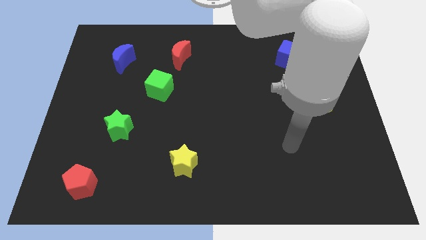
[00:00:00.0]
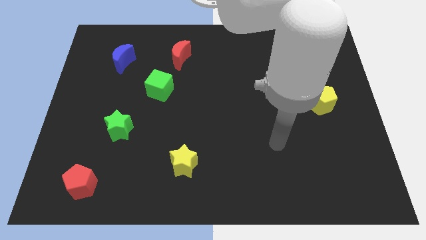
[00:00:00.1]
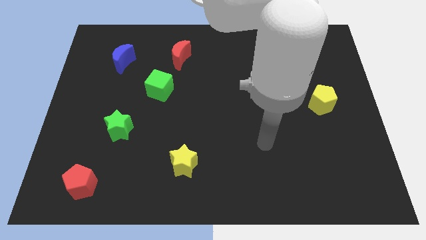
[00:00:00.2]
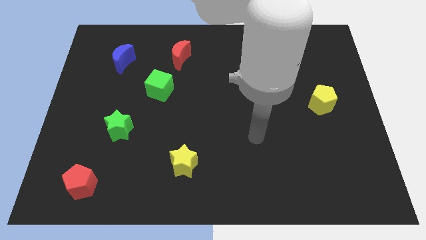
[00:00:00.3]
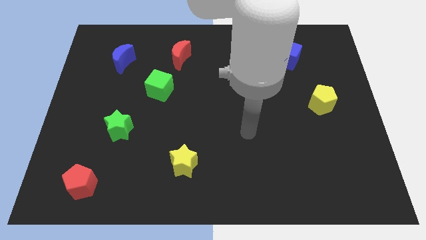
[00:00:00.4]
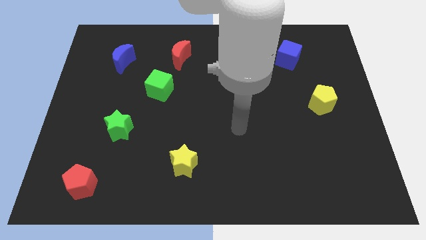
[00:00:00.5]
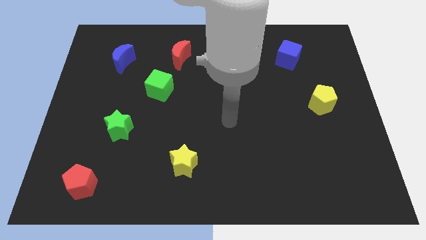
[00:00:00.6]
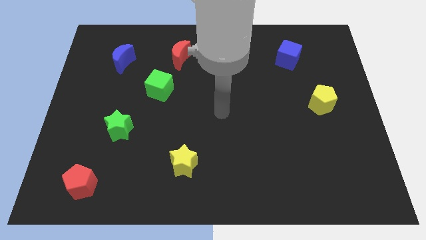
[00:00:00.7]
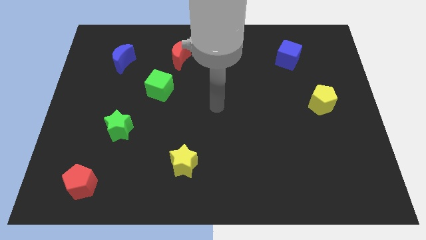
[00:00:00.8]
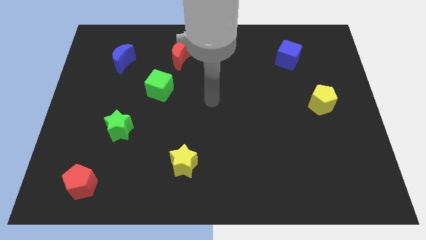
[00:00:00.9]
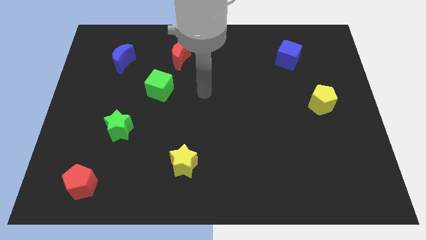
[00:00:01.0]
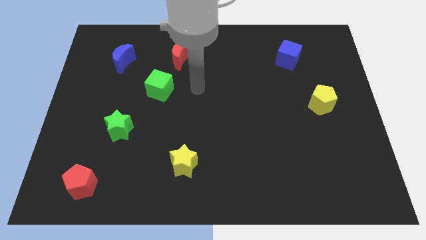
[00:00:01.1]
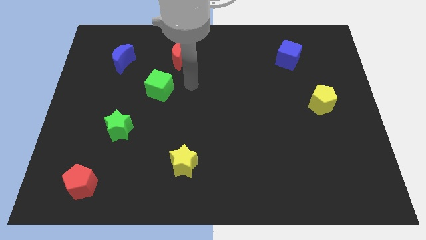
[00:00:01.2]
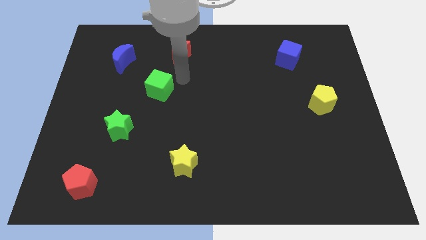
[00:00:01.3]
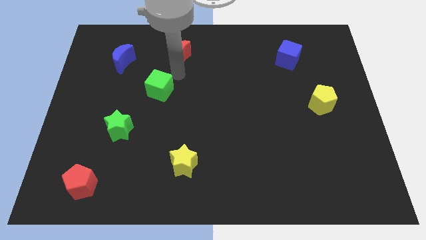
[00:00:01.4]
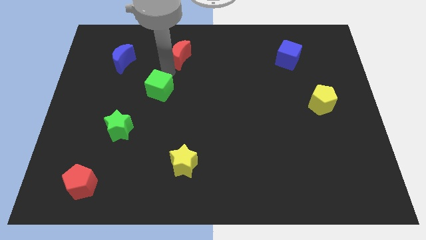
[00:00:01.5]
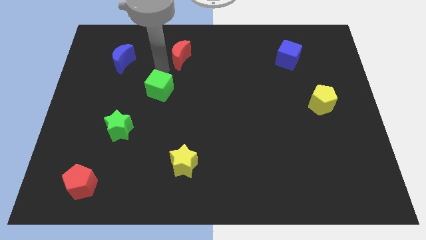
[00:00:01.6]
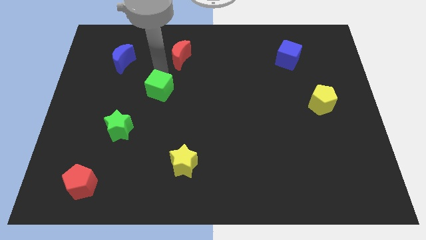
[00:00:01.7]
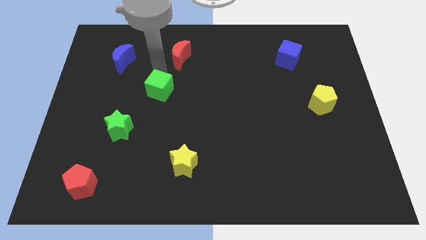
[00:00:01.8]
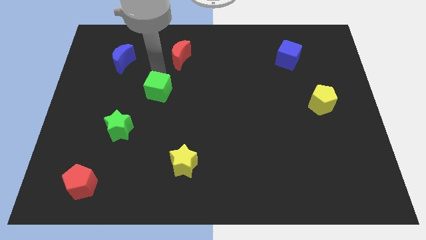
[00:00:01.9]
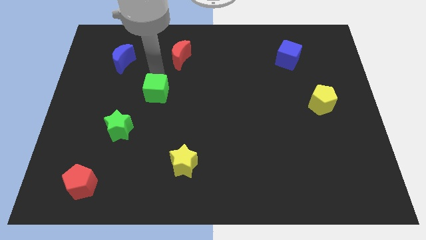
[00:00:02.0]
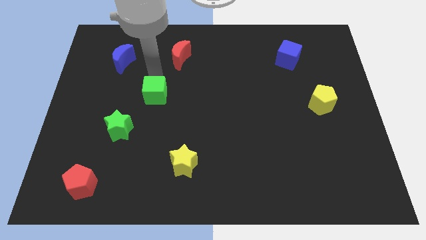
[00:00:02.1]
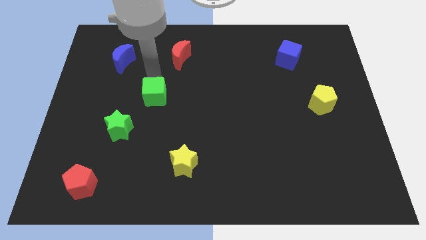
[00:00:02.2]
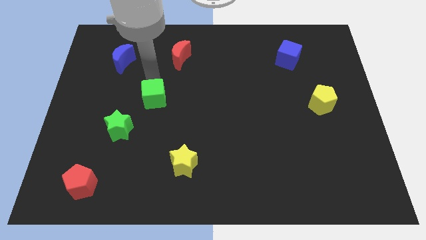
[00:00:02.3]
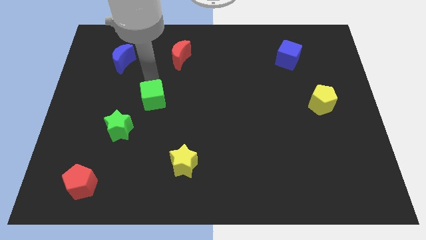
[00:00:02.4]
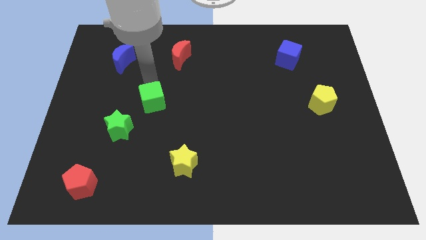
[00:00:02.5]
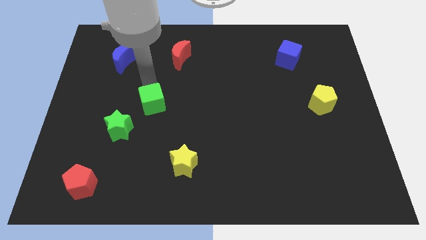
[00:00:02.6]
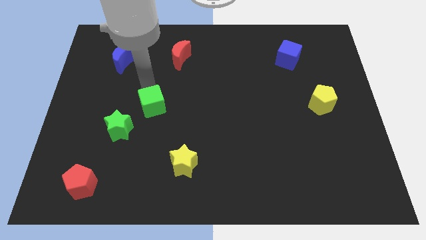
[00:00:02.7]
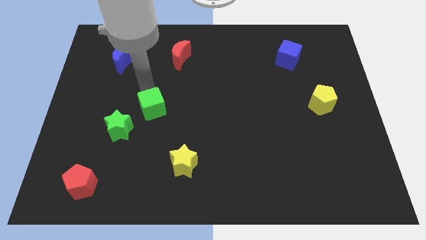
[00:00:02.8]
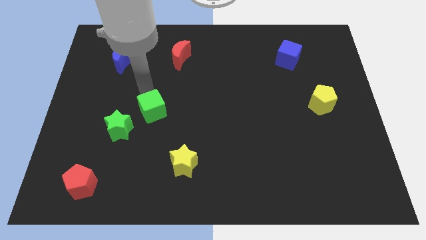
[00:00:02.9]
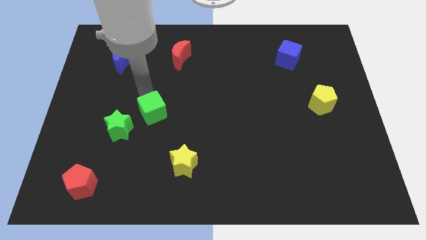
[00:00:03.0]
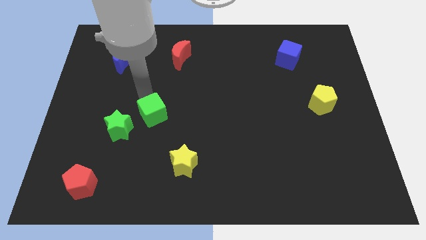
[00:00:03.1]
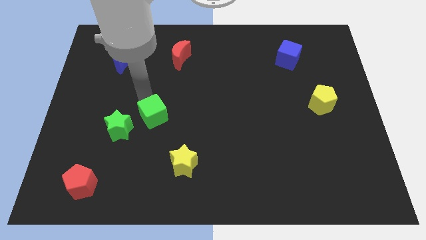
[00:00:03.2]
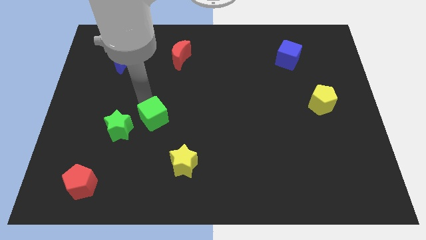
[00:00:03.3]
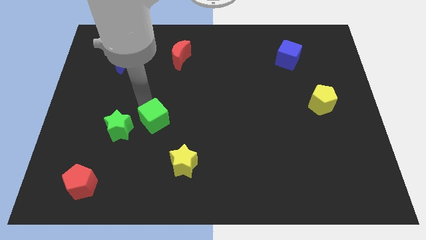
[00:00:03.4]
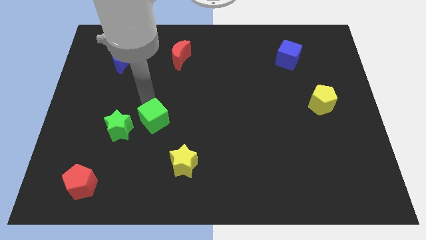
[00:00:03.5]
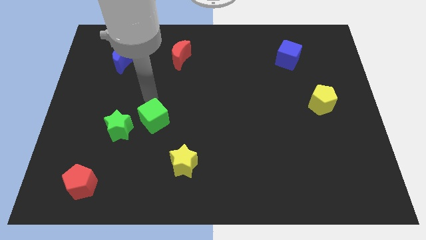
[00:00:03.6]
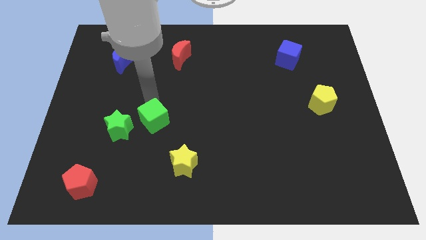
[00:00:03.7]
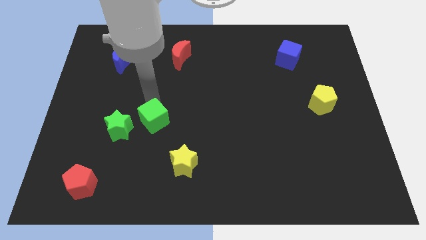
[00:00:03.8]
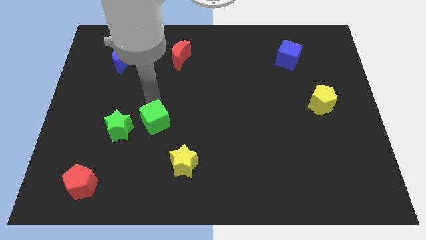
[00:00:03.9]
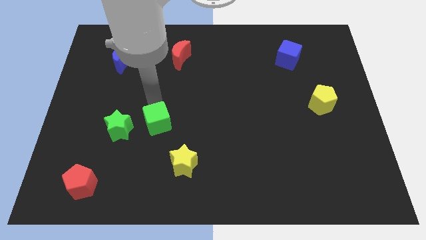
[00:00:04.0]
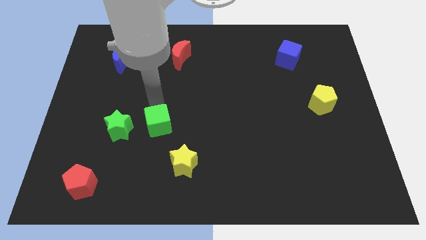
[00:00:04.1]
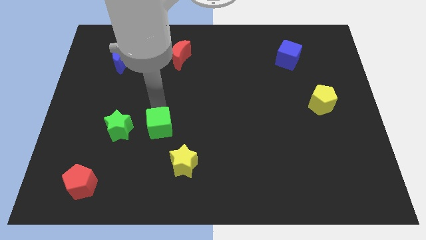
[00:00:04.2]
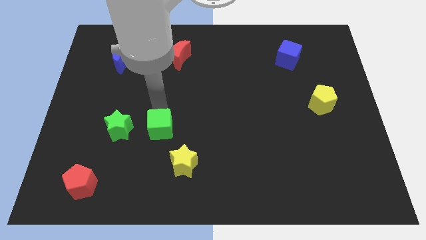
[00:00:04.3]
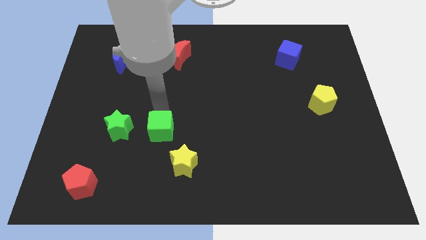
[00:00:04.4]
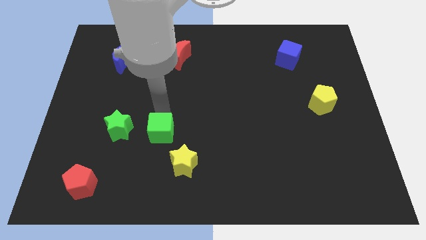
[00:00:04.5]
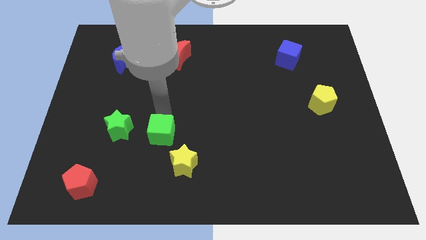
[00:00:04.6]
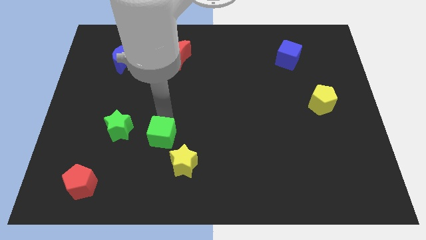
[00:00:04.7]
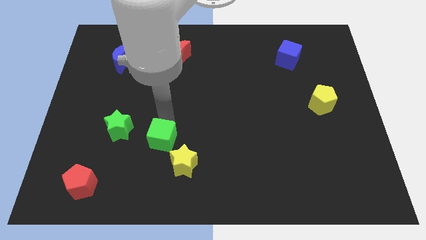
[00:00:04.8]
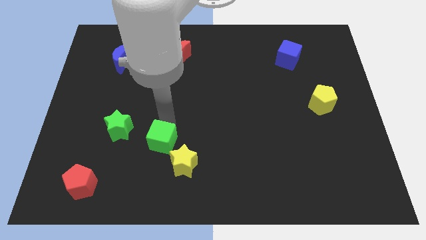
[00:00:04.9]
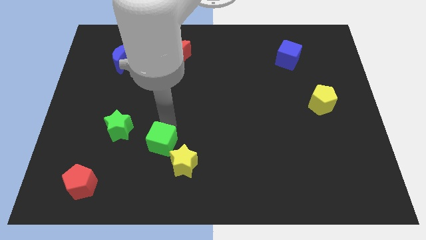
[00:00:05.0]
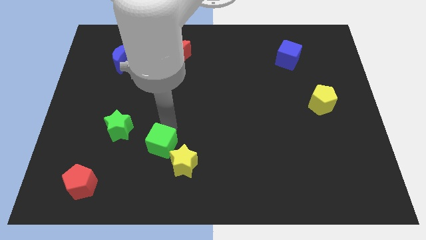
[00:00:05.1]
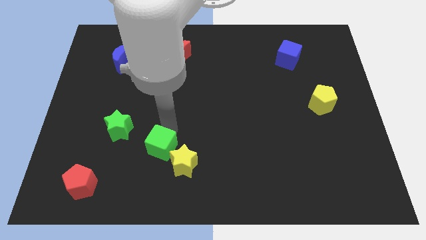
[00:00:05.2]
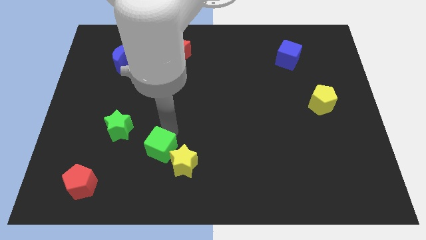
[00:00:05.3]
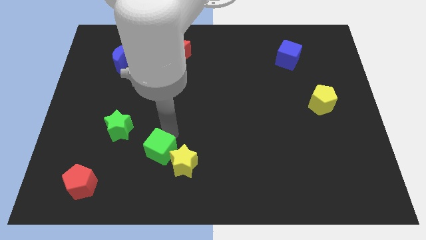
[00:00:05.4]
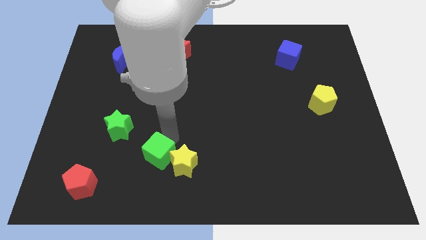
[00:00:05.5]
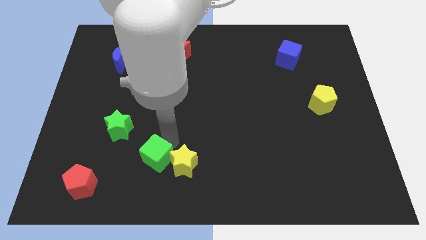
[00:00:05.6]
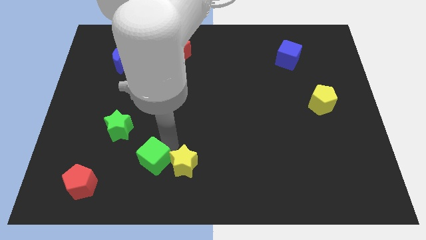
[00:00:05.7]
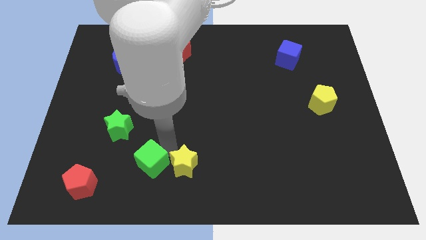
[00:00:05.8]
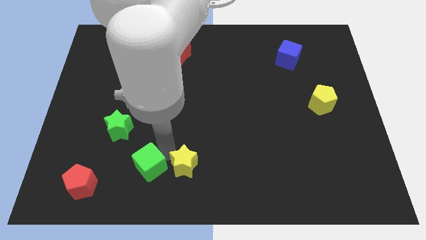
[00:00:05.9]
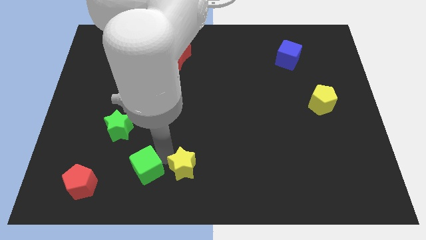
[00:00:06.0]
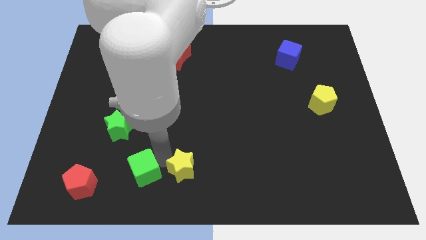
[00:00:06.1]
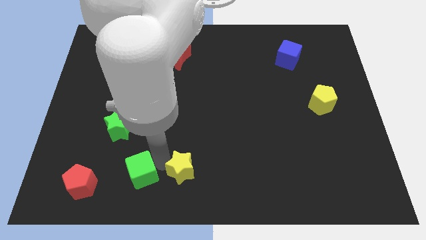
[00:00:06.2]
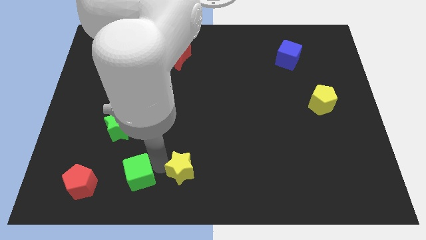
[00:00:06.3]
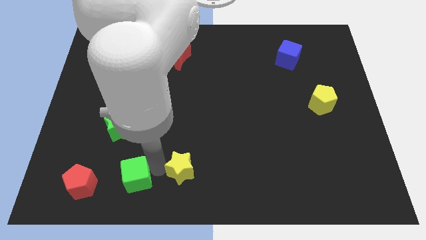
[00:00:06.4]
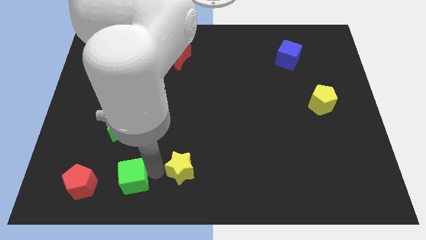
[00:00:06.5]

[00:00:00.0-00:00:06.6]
put the green cube to the bottom side of the green star

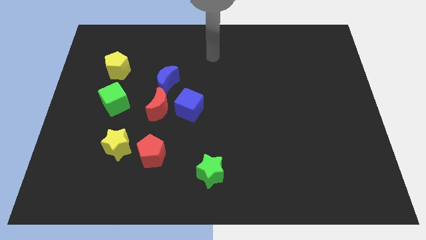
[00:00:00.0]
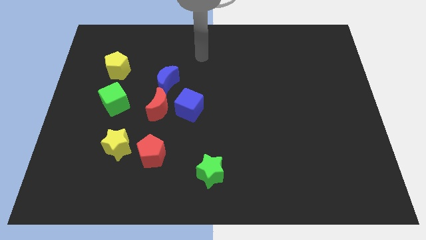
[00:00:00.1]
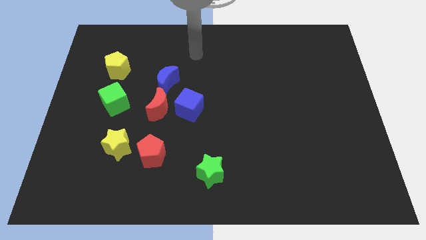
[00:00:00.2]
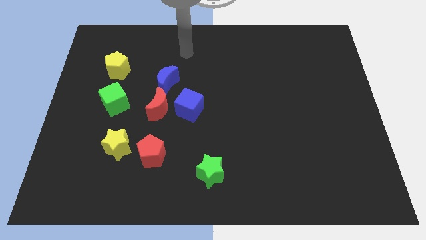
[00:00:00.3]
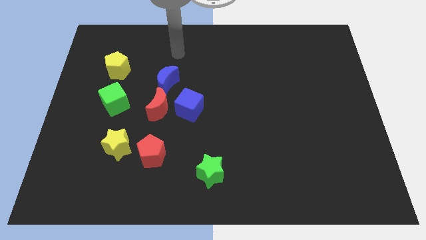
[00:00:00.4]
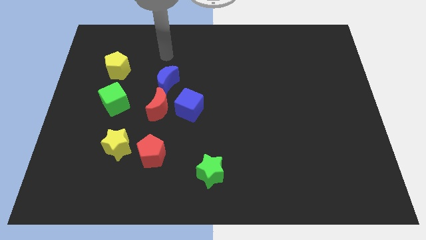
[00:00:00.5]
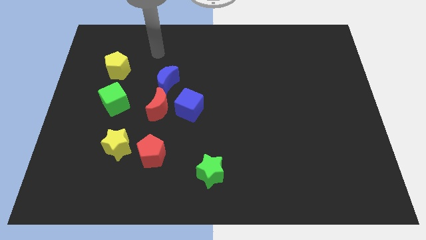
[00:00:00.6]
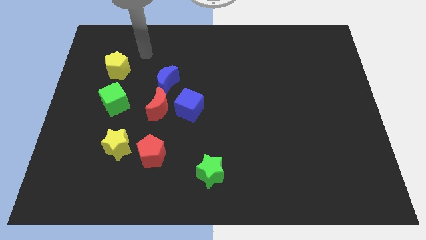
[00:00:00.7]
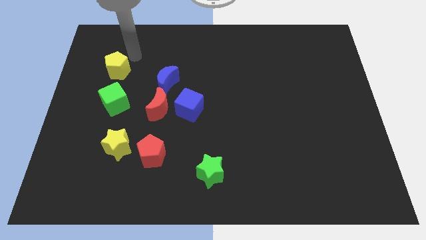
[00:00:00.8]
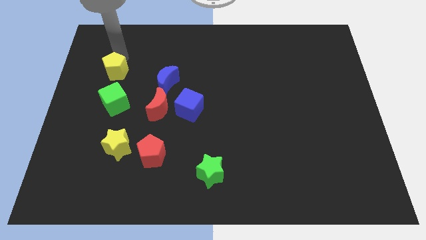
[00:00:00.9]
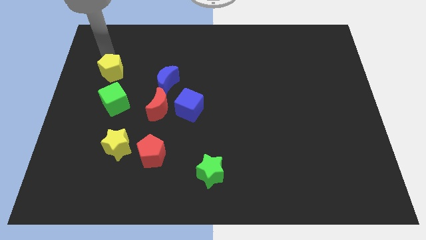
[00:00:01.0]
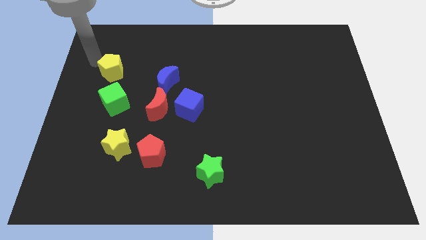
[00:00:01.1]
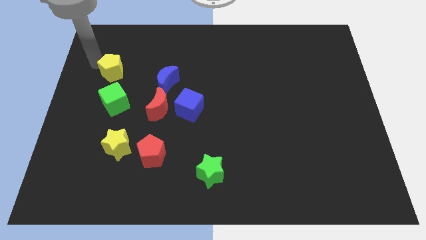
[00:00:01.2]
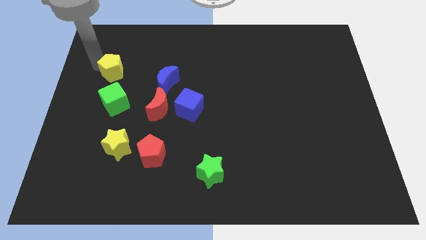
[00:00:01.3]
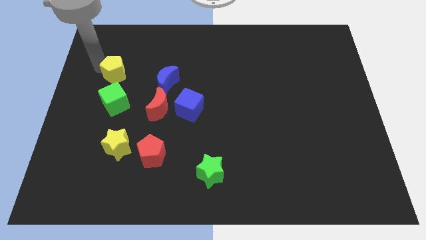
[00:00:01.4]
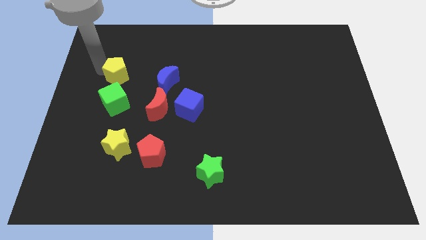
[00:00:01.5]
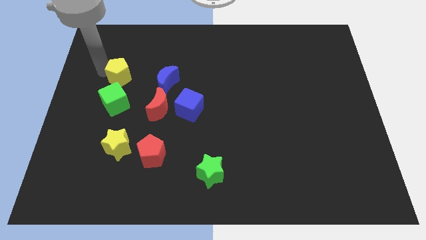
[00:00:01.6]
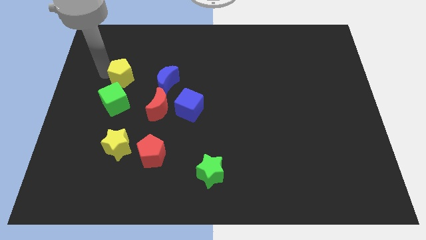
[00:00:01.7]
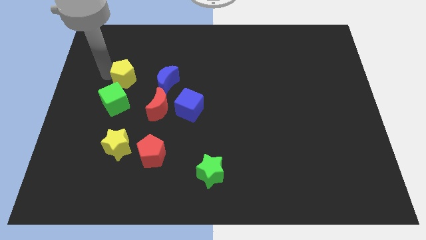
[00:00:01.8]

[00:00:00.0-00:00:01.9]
push the yellow pentagon to the top right side of the green cube
